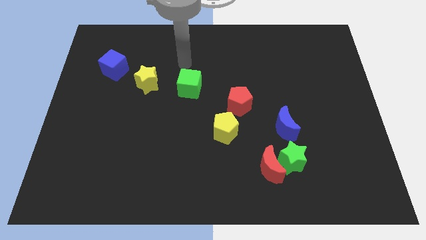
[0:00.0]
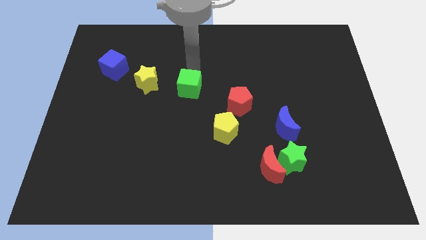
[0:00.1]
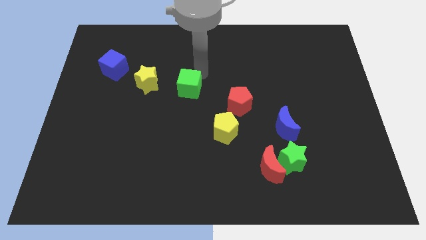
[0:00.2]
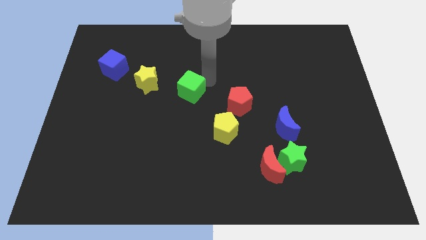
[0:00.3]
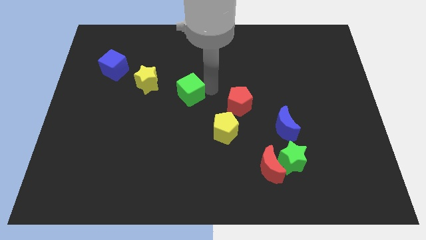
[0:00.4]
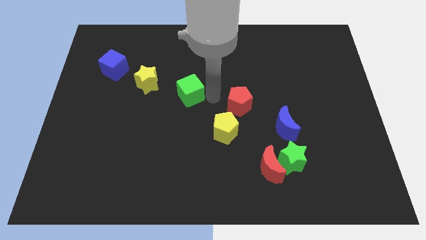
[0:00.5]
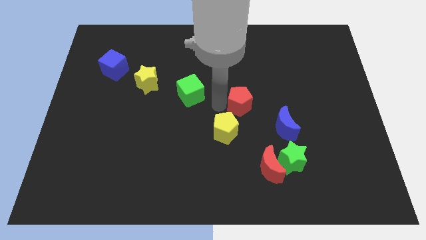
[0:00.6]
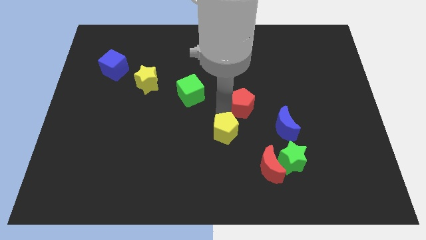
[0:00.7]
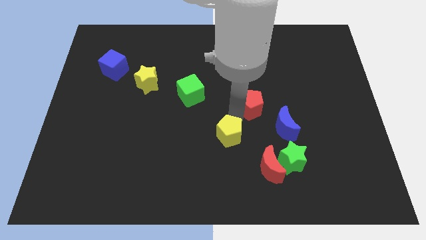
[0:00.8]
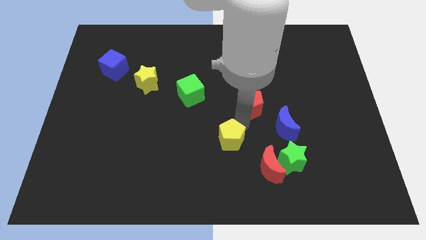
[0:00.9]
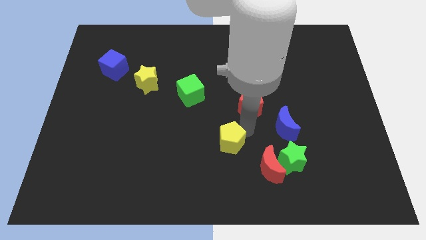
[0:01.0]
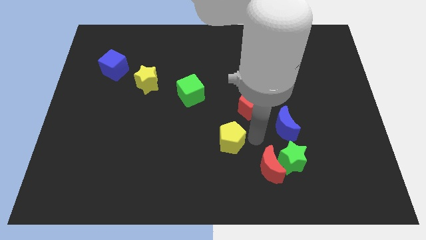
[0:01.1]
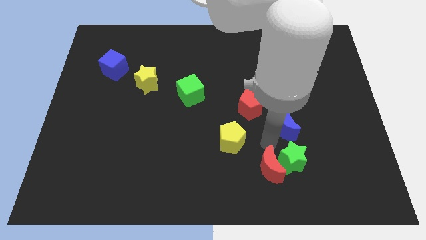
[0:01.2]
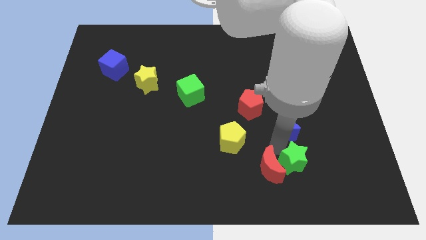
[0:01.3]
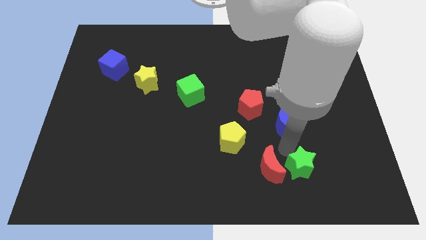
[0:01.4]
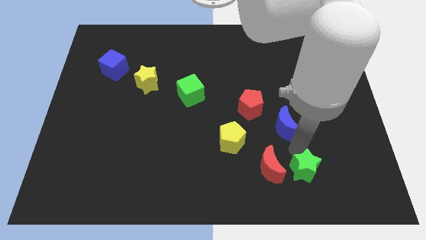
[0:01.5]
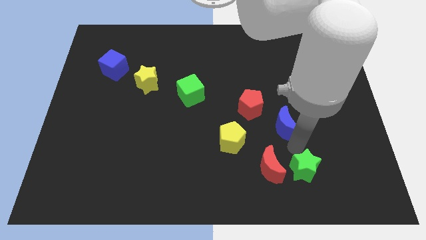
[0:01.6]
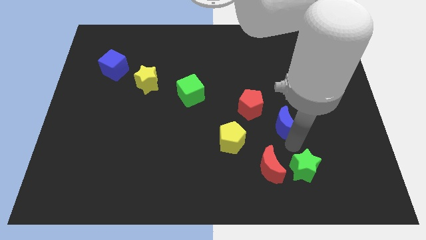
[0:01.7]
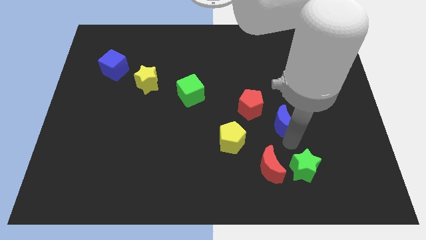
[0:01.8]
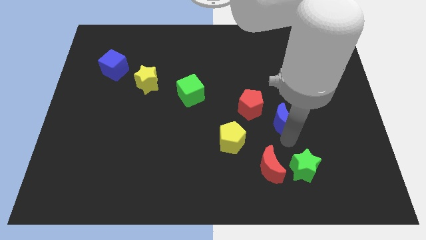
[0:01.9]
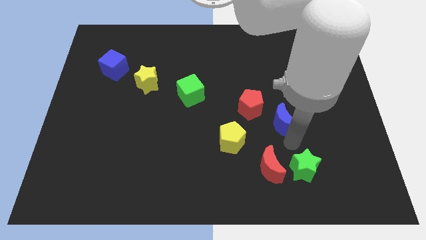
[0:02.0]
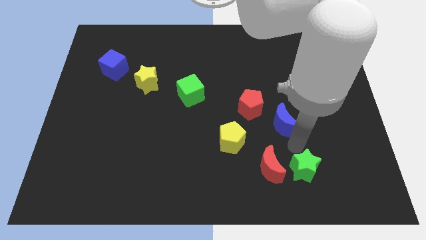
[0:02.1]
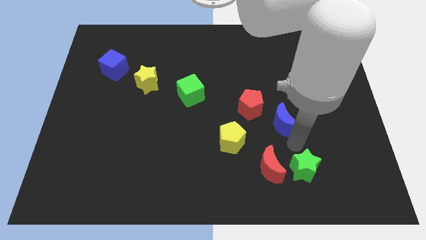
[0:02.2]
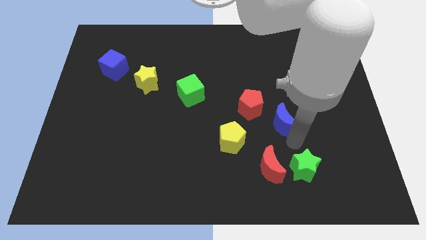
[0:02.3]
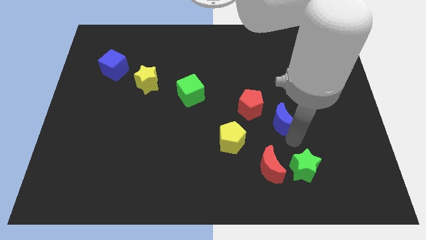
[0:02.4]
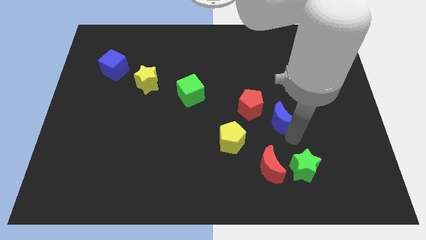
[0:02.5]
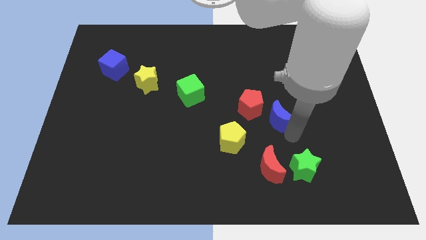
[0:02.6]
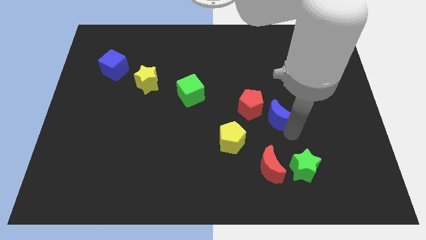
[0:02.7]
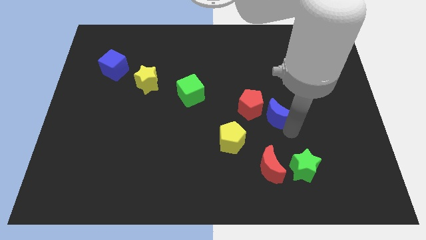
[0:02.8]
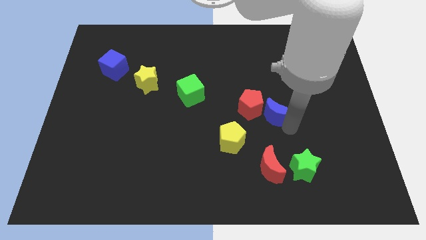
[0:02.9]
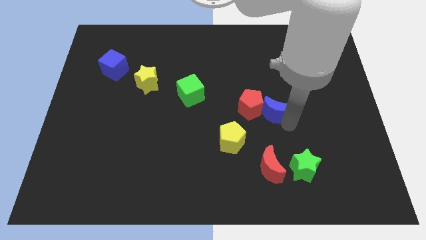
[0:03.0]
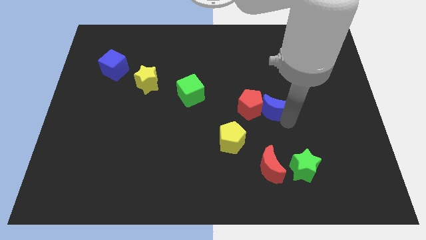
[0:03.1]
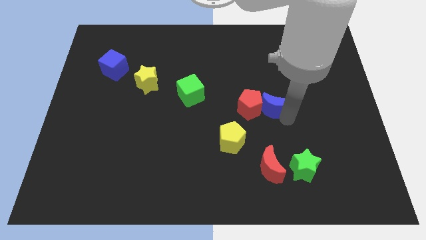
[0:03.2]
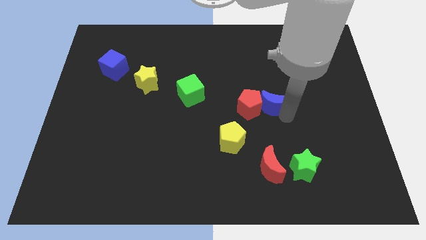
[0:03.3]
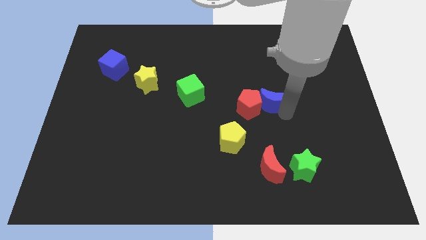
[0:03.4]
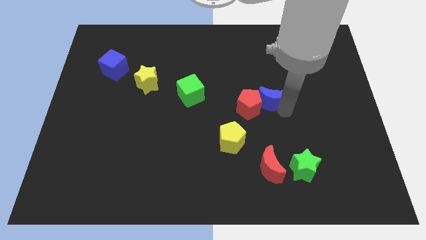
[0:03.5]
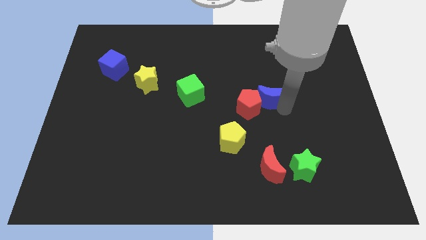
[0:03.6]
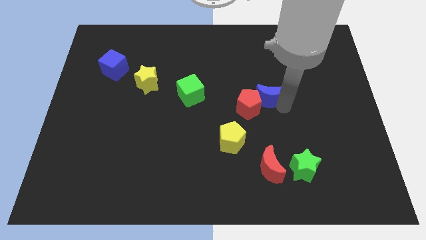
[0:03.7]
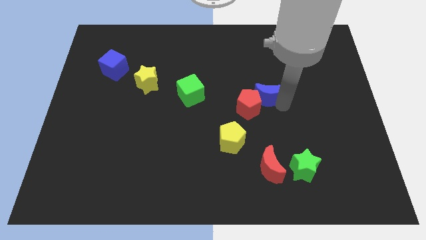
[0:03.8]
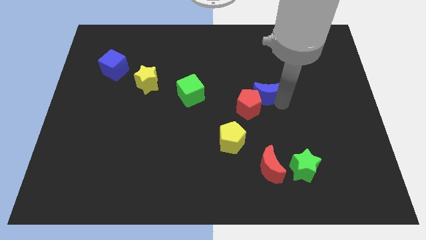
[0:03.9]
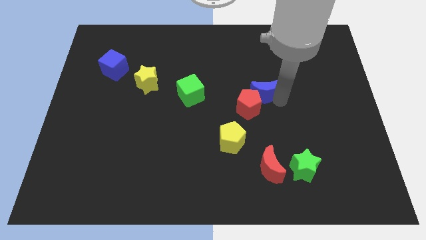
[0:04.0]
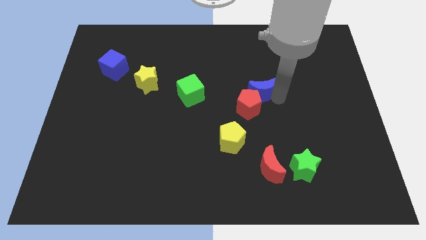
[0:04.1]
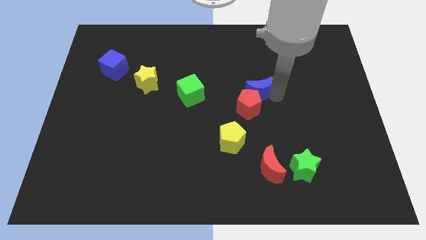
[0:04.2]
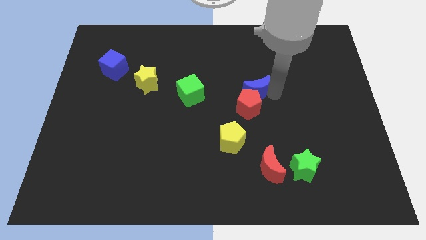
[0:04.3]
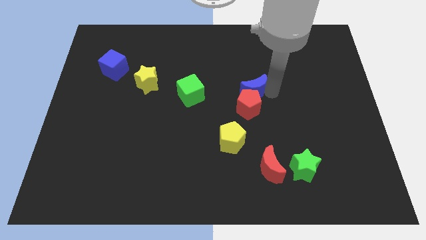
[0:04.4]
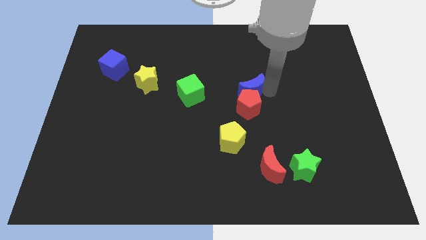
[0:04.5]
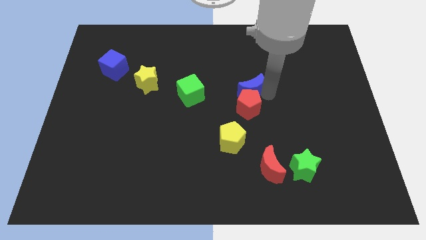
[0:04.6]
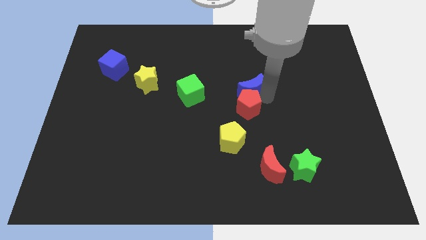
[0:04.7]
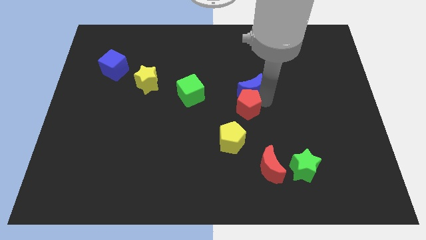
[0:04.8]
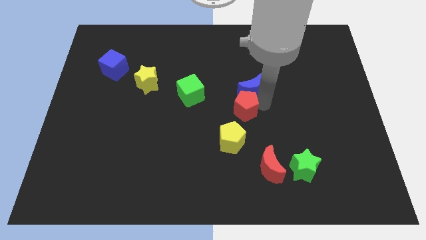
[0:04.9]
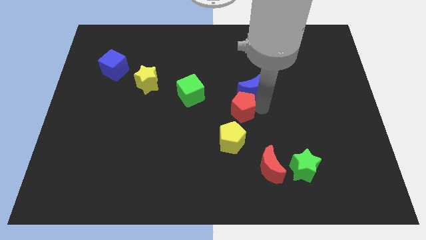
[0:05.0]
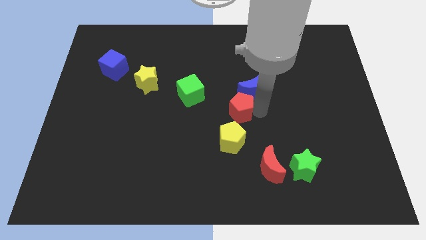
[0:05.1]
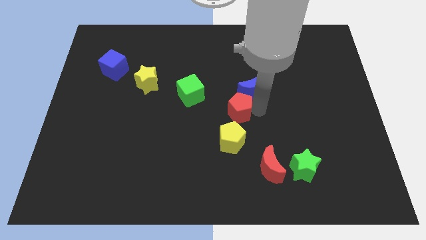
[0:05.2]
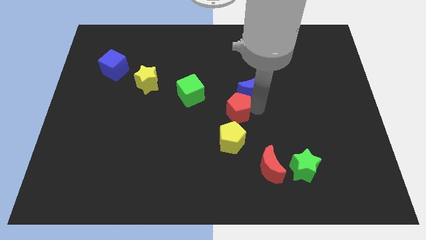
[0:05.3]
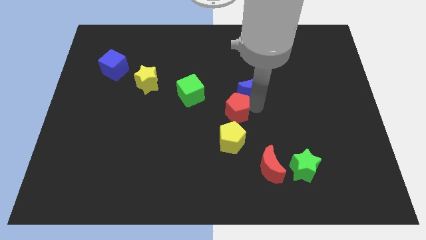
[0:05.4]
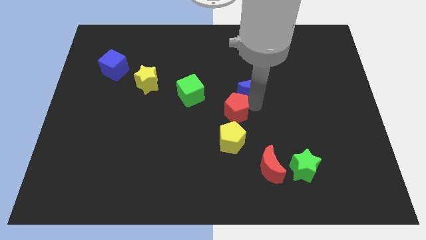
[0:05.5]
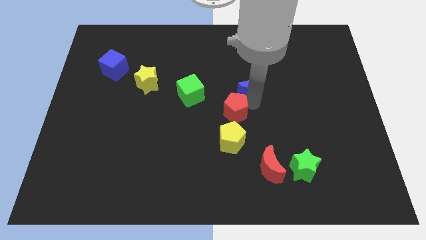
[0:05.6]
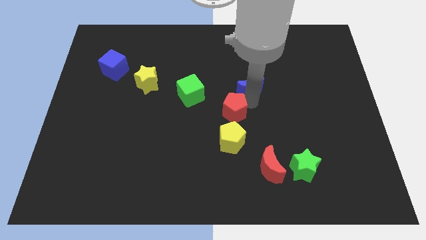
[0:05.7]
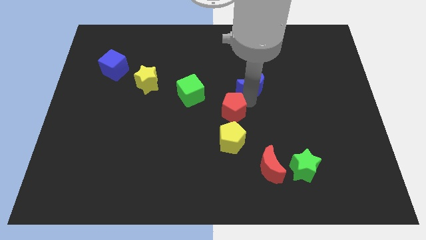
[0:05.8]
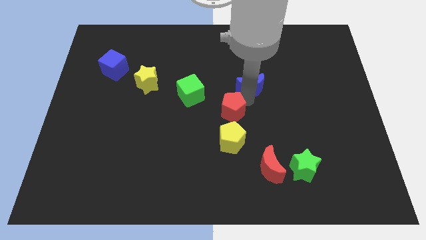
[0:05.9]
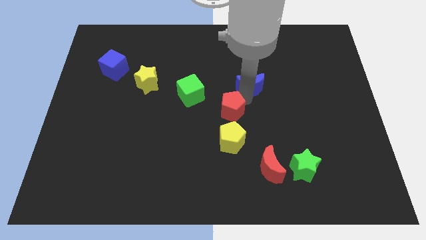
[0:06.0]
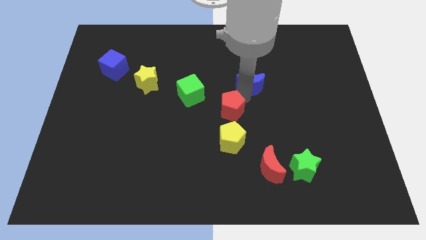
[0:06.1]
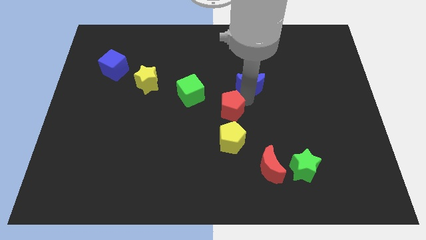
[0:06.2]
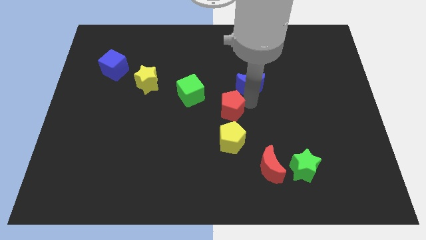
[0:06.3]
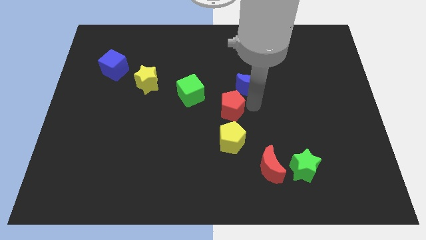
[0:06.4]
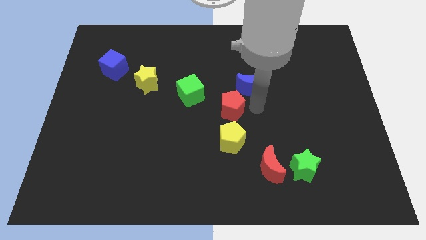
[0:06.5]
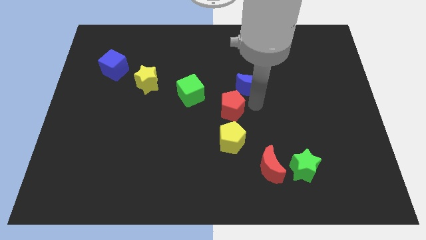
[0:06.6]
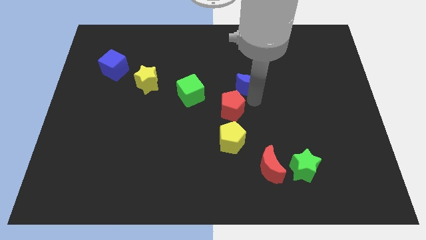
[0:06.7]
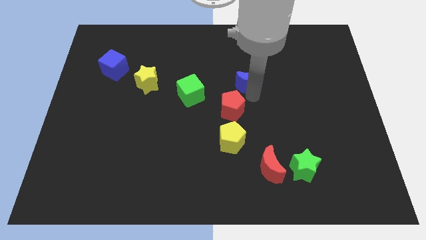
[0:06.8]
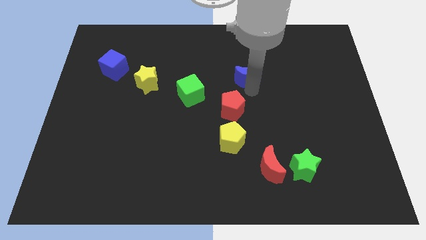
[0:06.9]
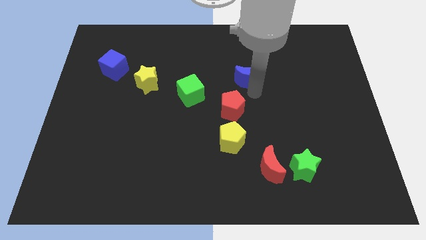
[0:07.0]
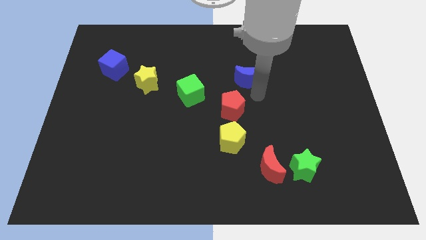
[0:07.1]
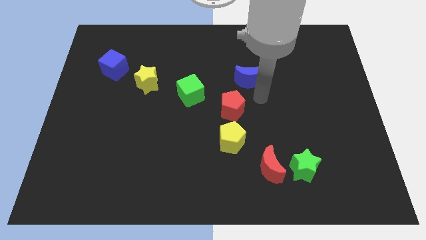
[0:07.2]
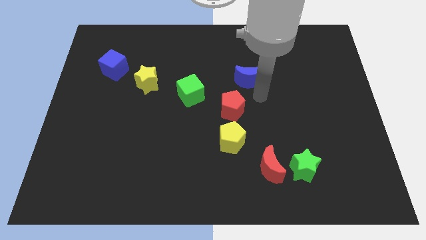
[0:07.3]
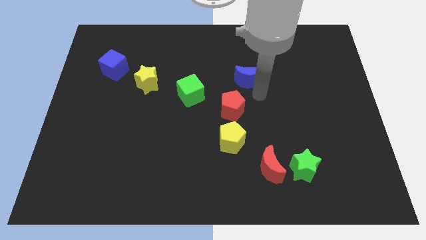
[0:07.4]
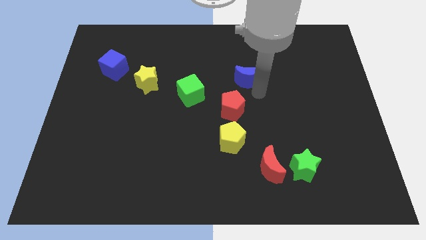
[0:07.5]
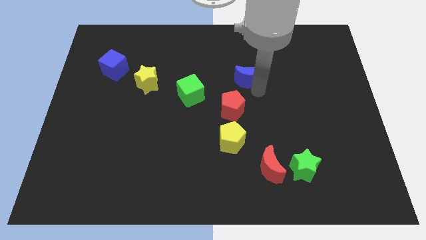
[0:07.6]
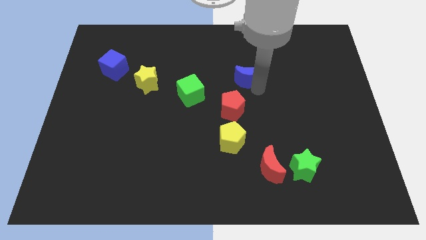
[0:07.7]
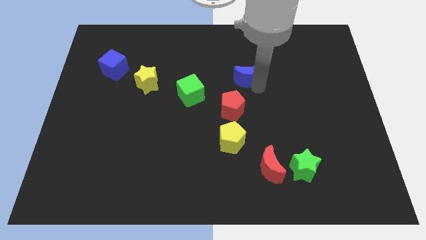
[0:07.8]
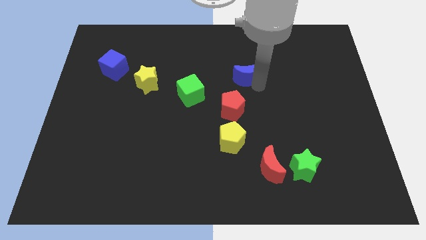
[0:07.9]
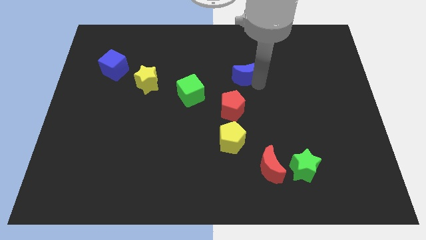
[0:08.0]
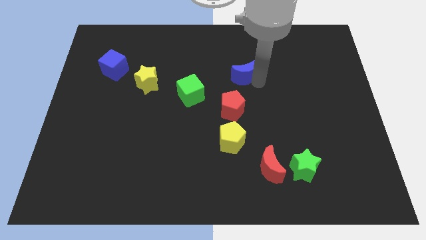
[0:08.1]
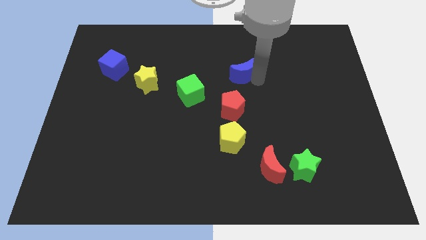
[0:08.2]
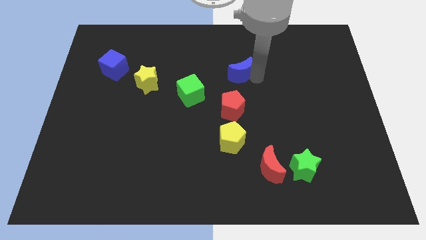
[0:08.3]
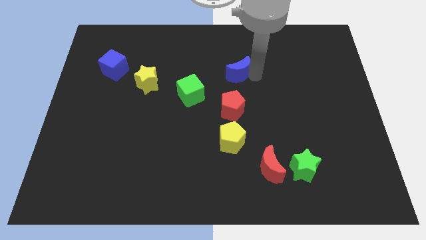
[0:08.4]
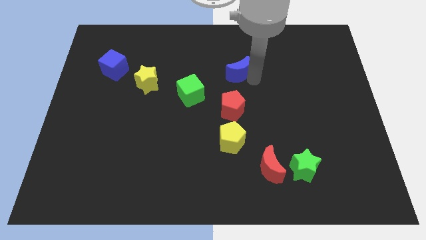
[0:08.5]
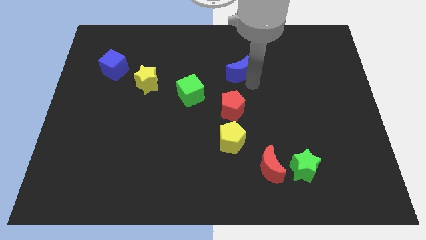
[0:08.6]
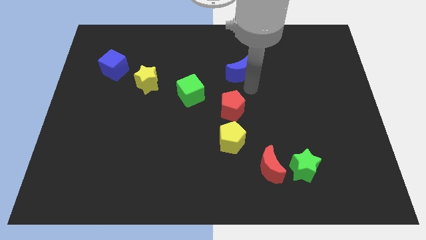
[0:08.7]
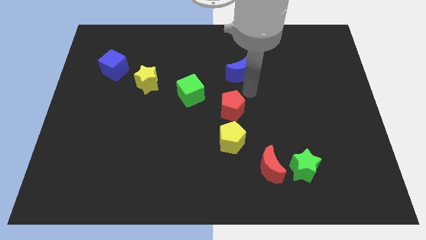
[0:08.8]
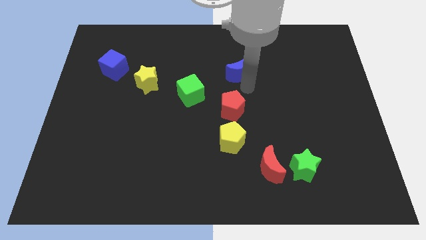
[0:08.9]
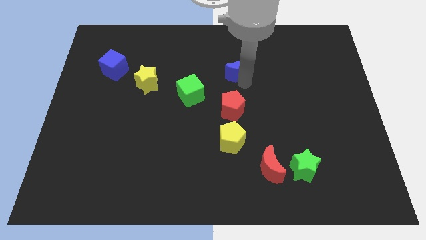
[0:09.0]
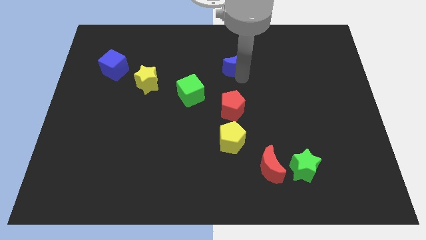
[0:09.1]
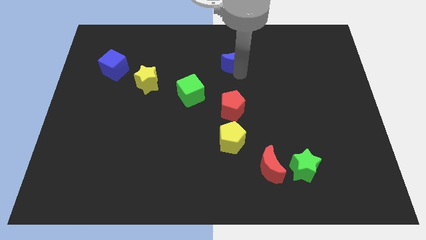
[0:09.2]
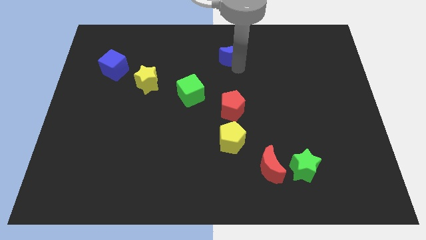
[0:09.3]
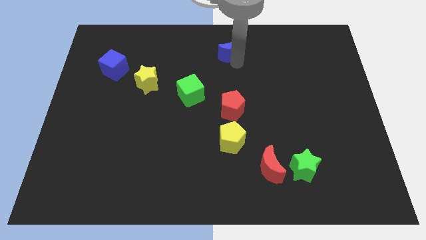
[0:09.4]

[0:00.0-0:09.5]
push the blue moon to the top side
